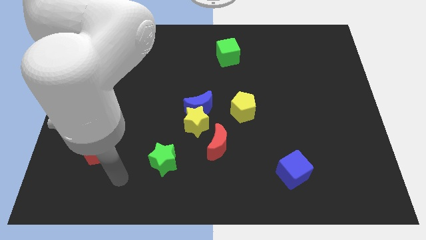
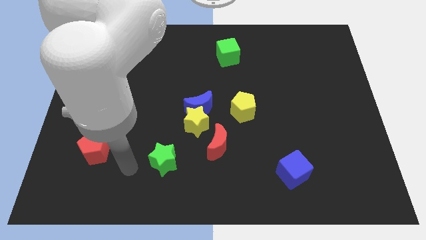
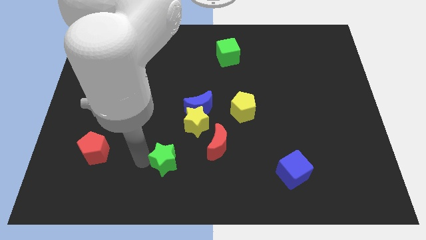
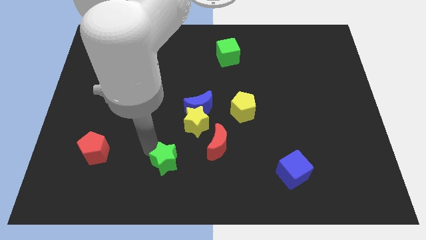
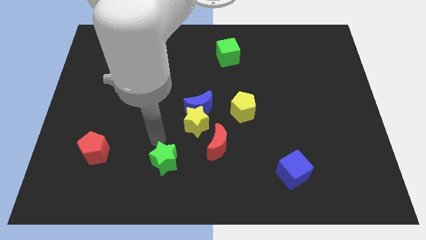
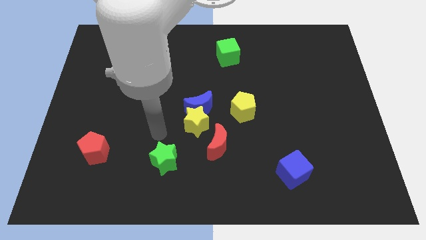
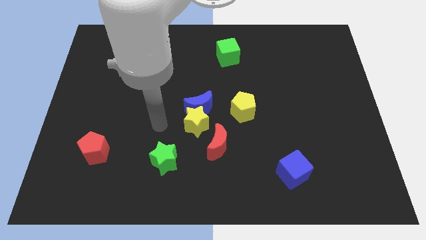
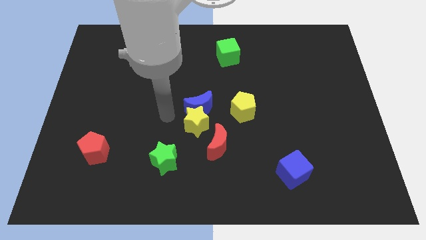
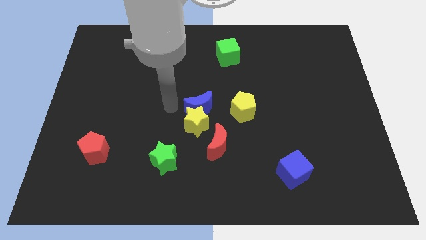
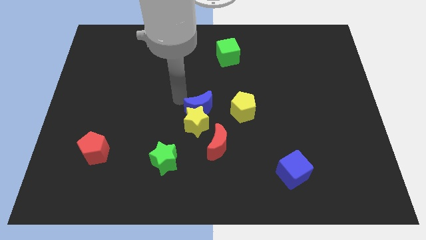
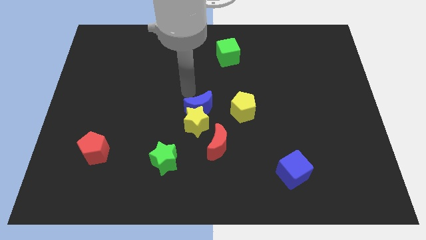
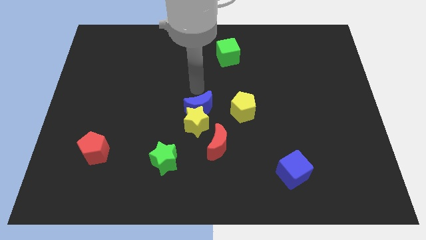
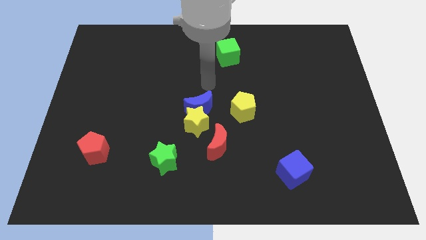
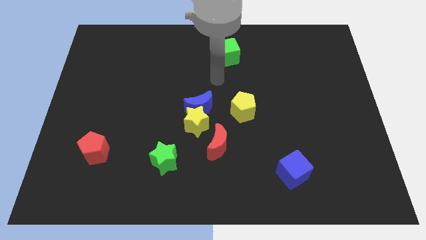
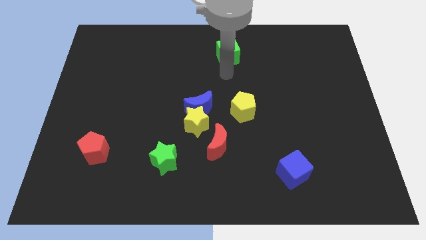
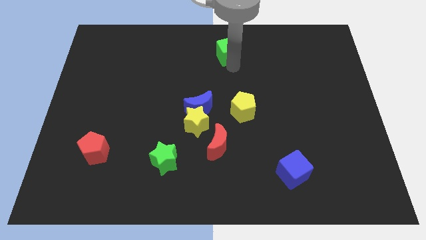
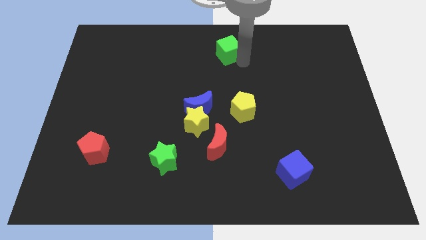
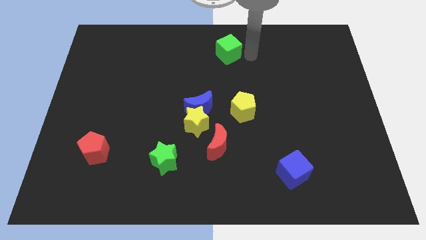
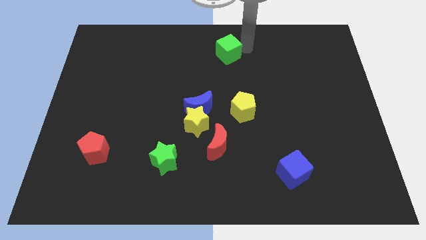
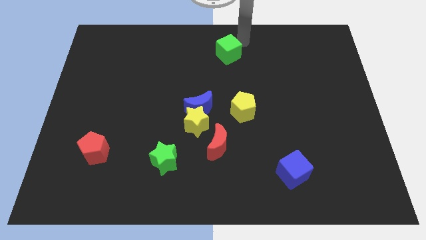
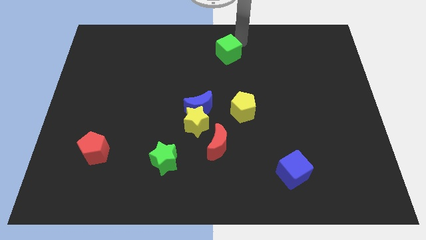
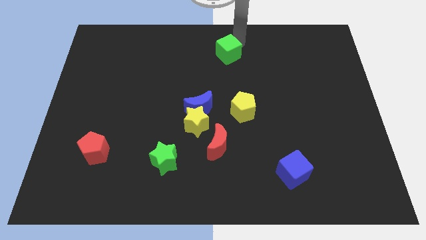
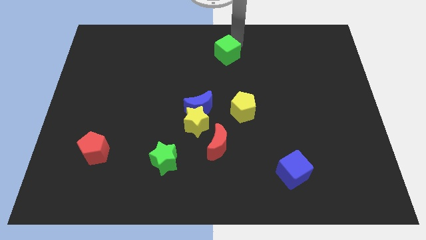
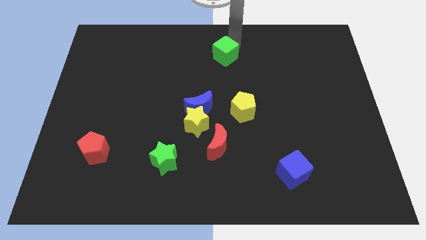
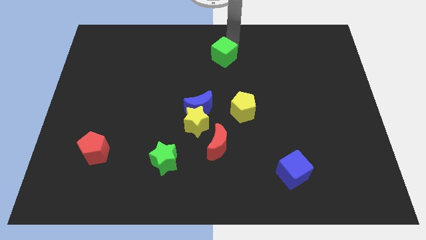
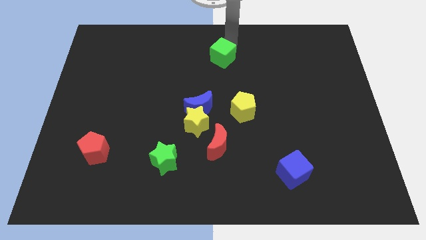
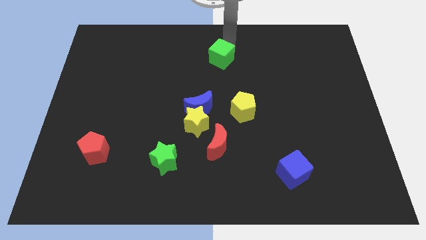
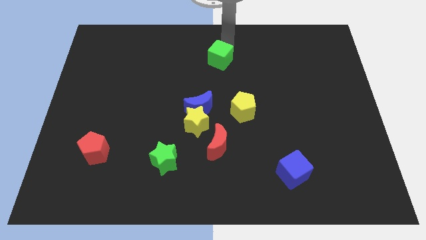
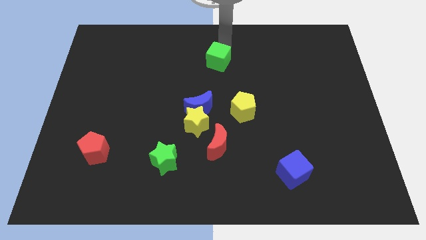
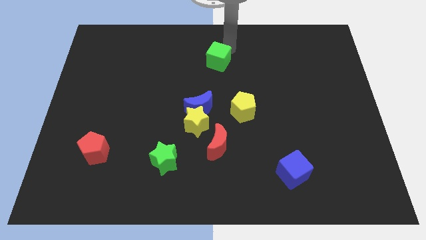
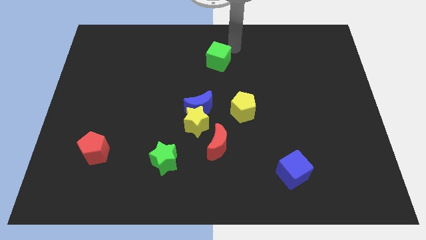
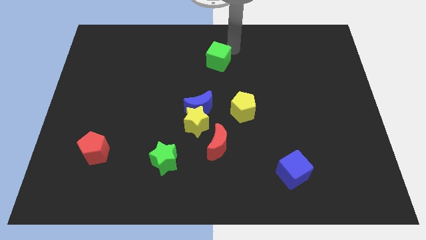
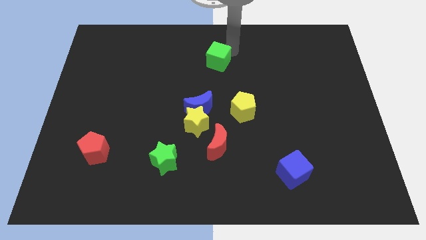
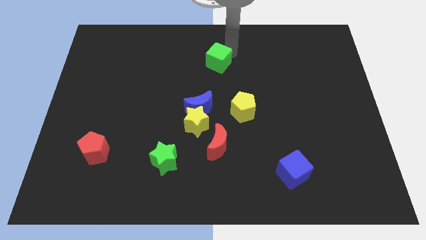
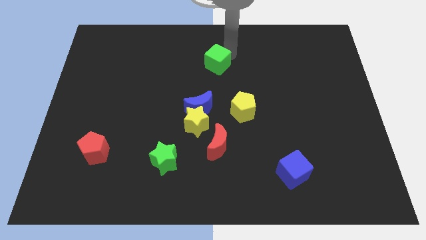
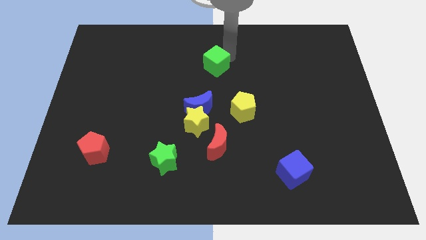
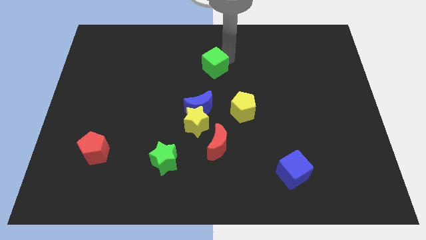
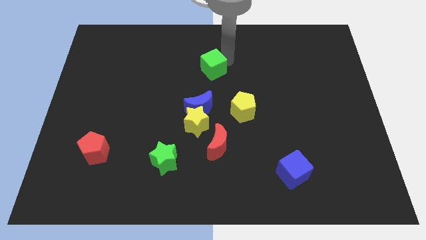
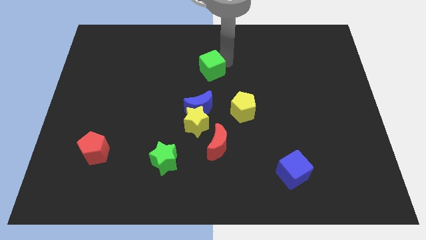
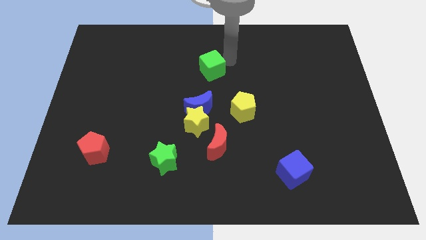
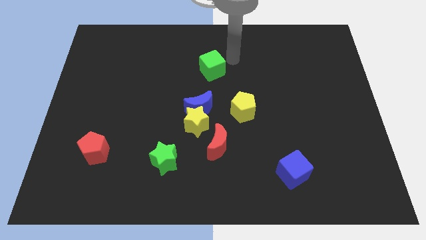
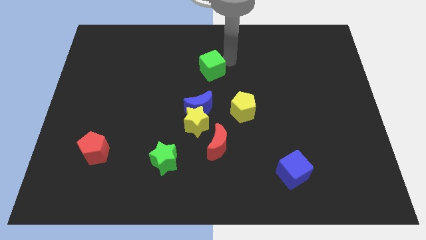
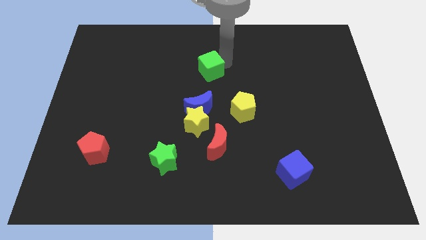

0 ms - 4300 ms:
slightly push the green cube downwards and to the left diagonally

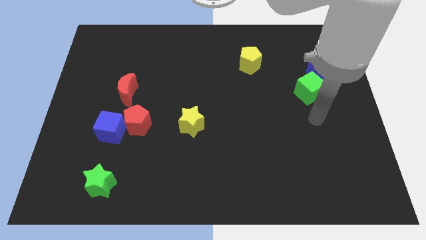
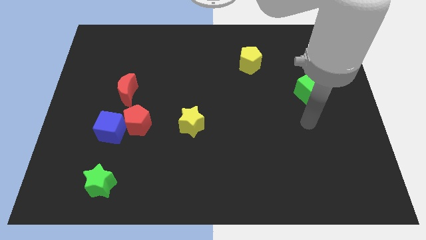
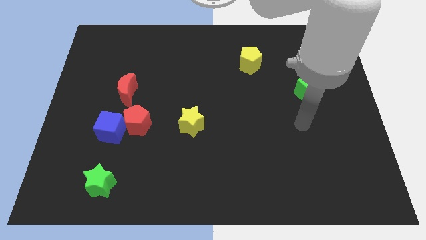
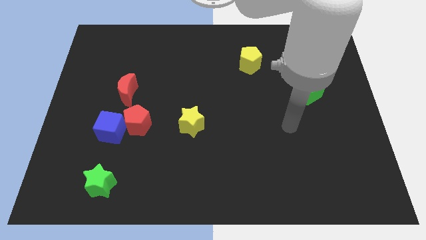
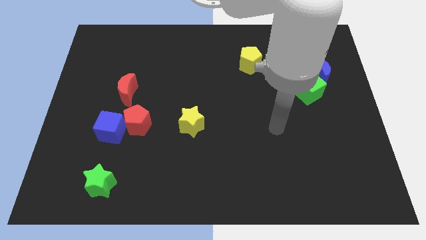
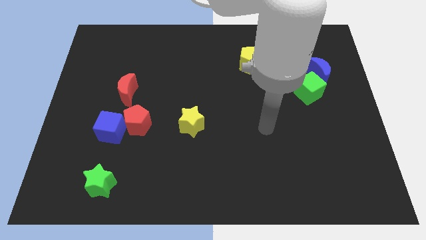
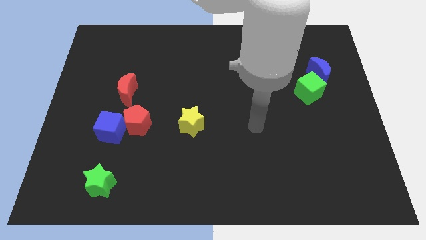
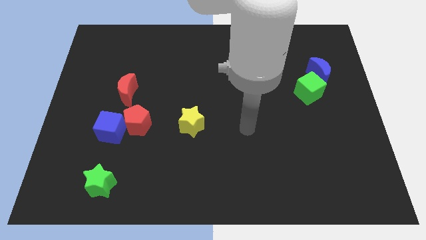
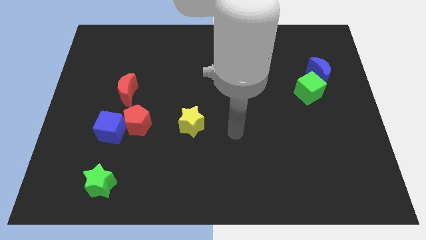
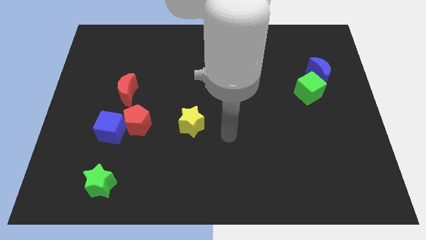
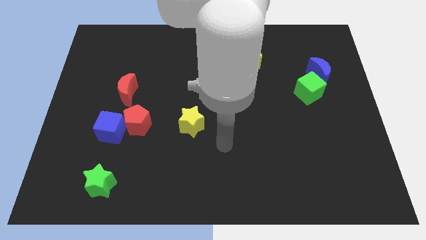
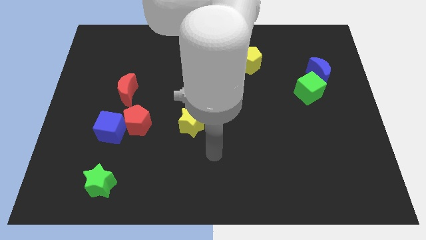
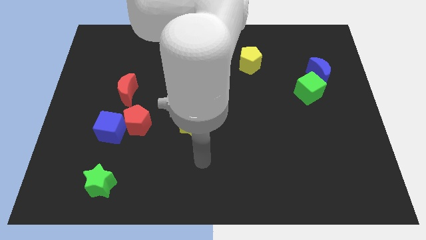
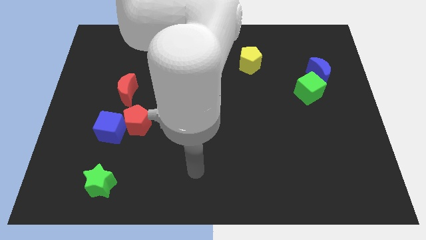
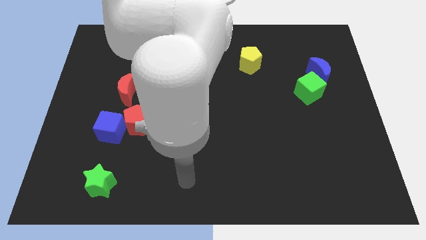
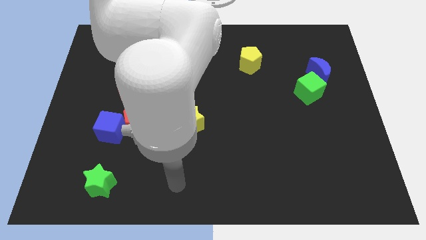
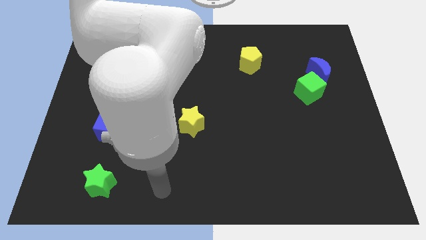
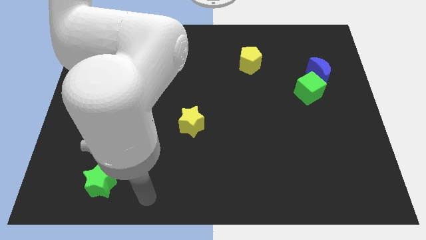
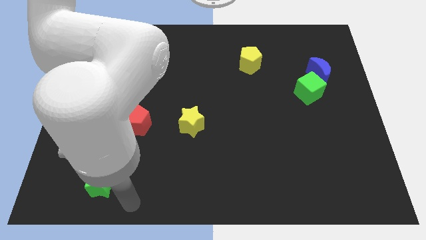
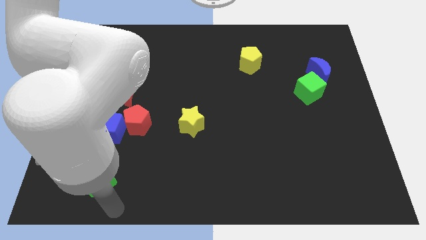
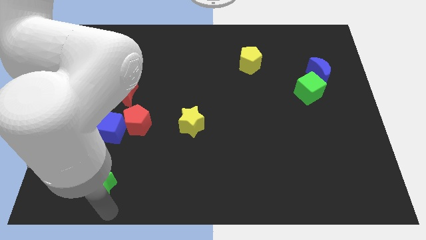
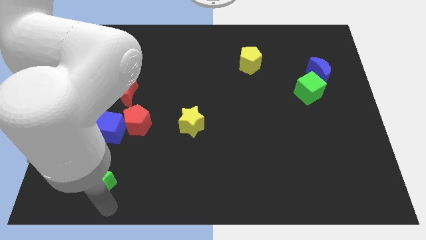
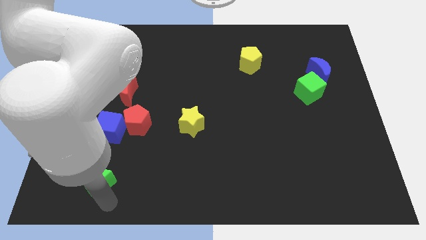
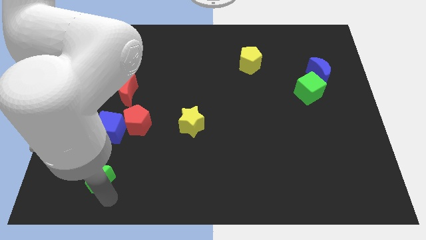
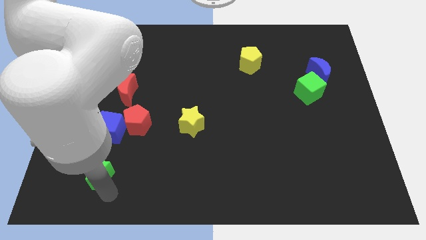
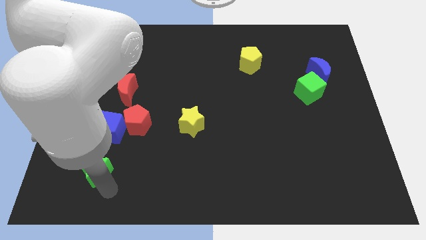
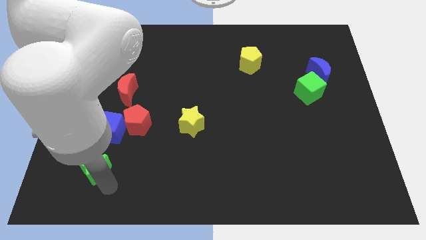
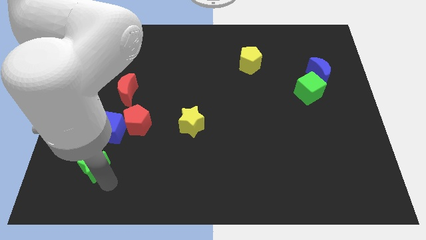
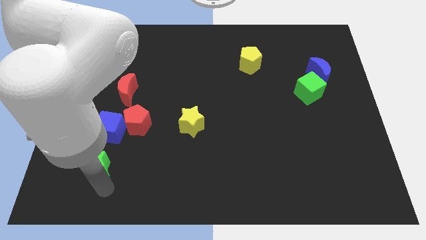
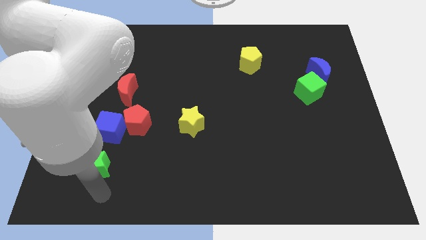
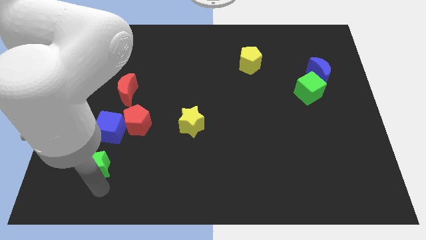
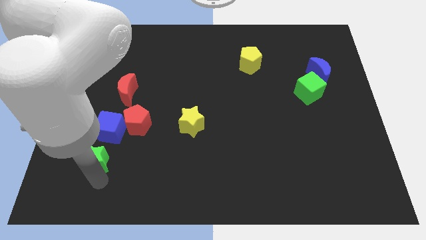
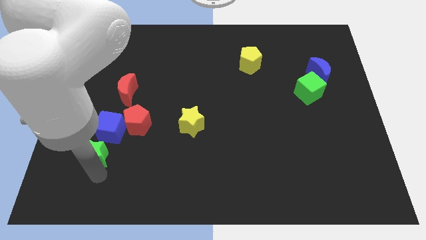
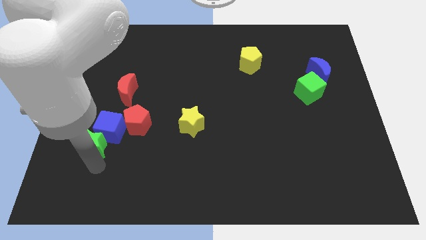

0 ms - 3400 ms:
slide the green star up slightly

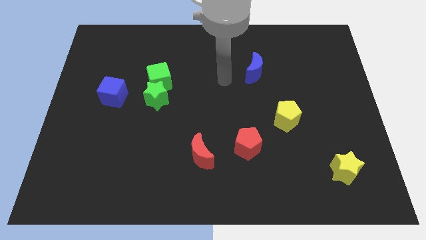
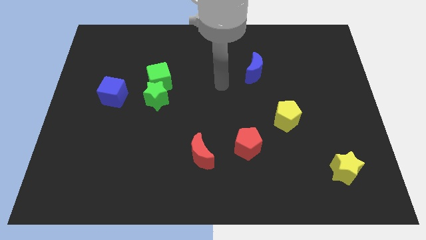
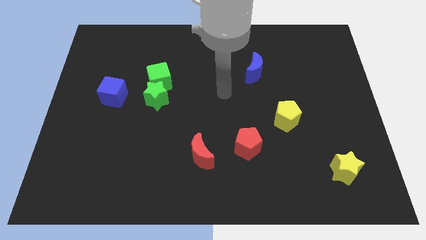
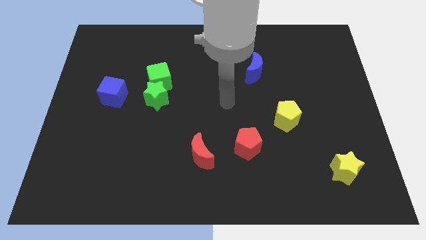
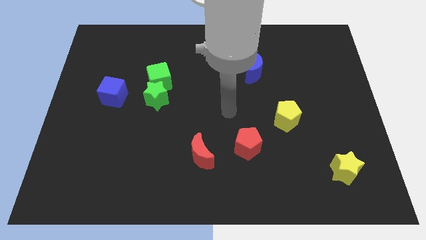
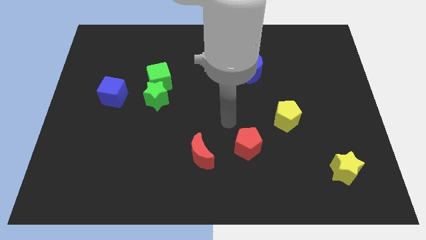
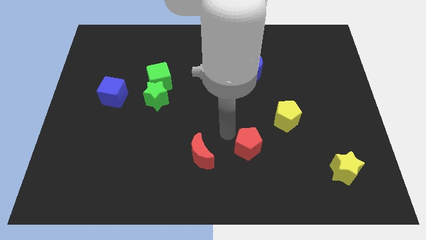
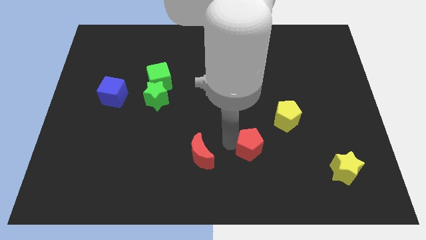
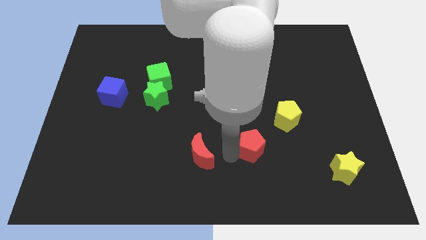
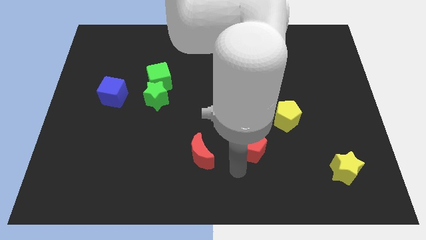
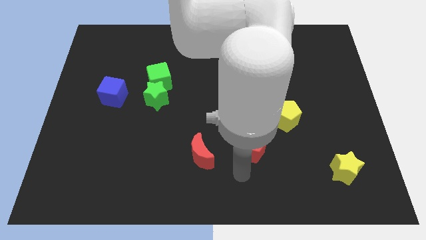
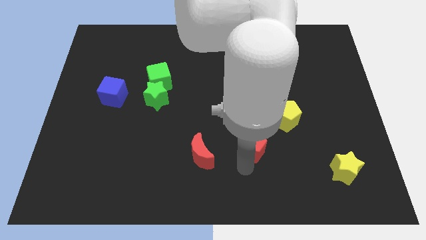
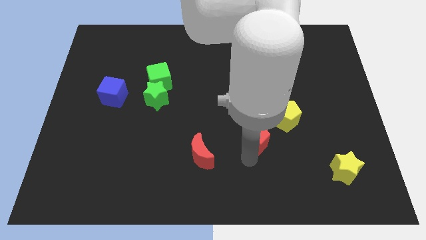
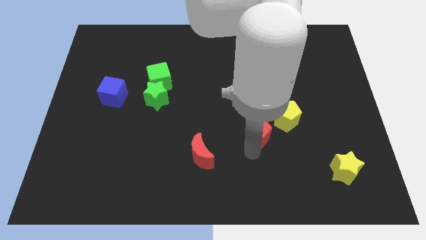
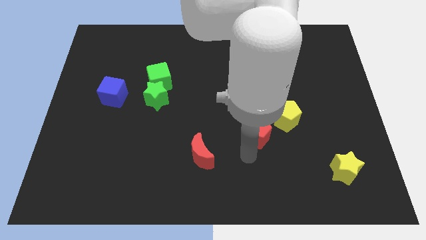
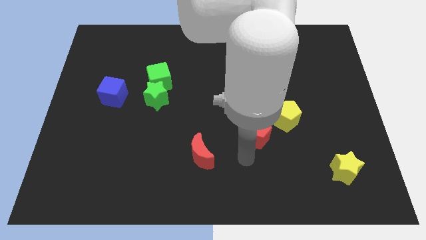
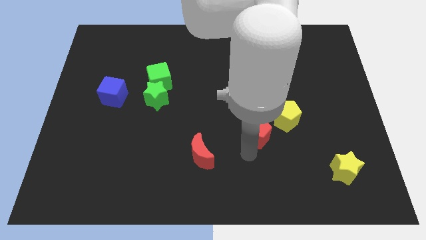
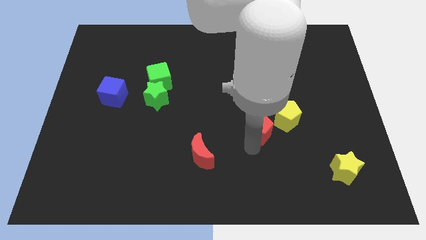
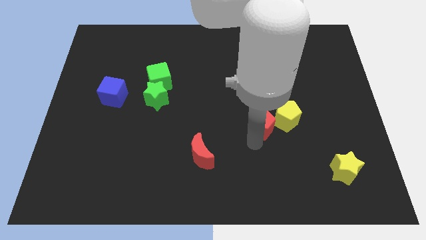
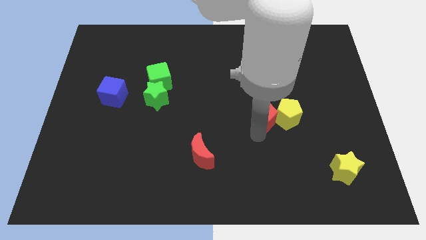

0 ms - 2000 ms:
move the red pentagon a little upwards and then to the right
